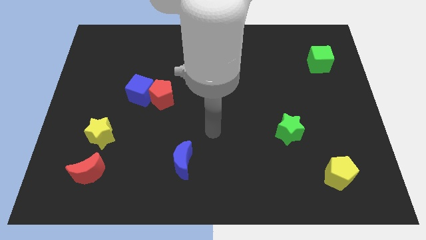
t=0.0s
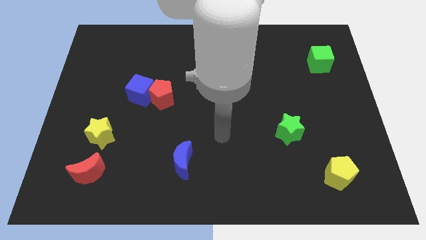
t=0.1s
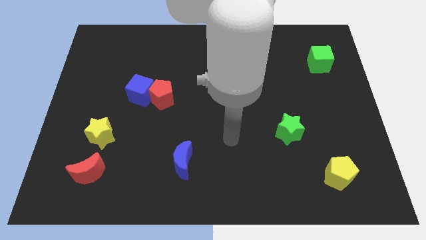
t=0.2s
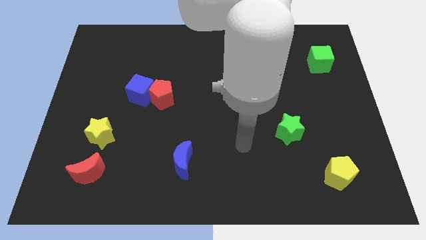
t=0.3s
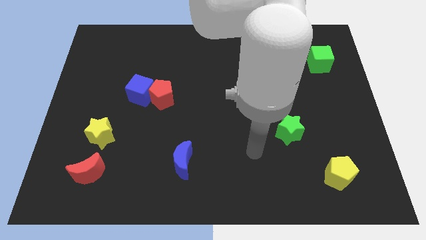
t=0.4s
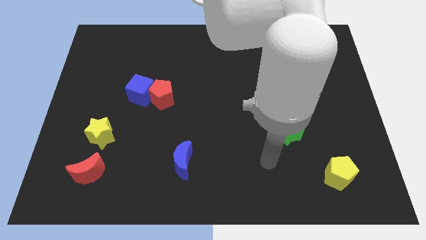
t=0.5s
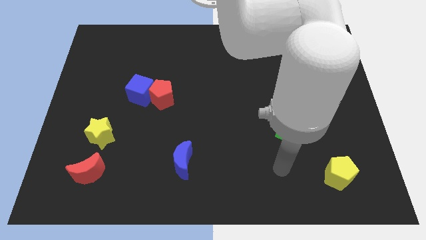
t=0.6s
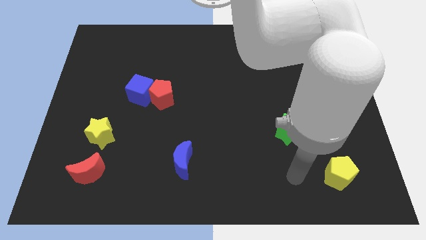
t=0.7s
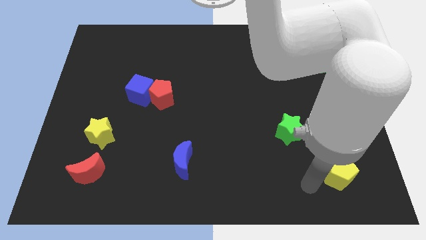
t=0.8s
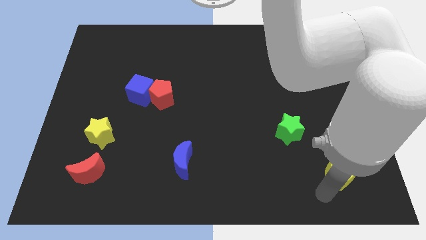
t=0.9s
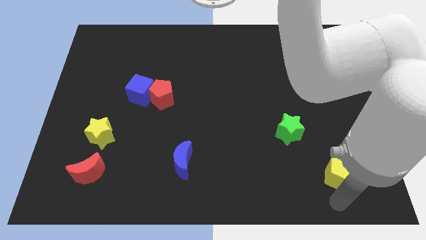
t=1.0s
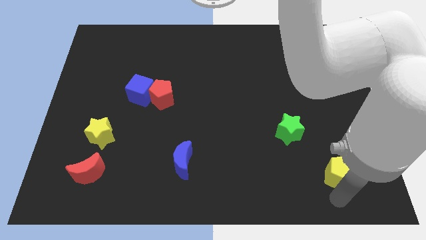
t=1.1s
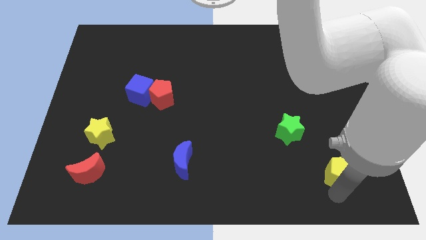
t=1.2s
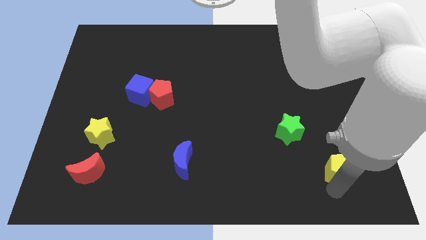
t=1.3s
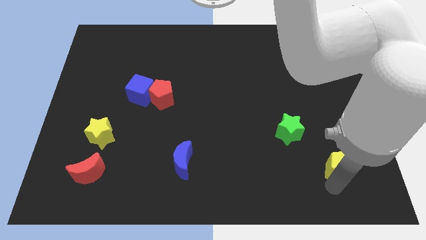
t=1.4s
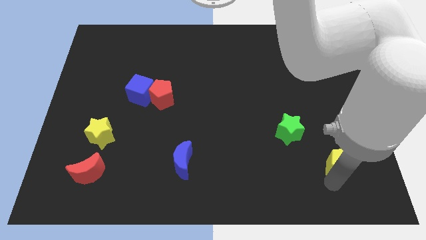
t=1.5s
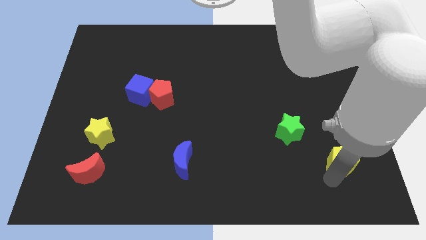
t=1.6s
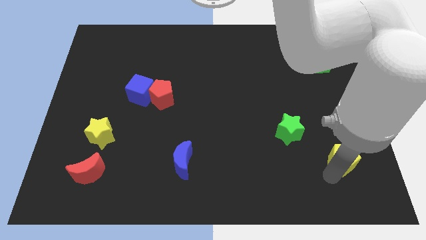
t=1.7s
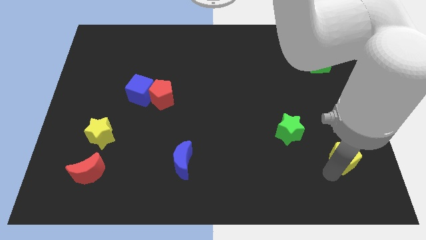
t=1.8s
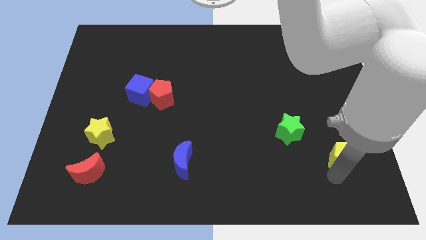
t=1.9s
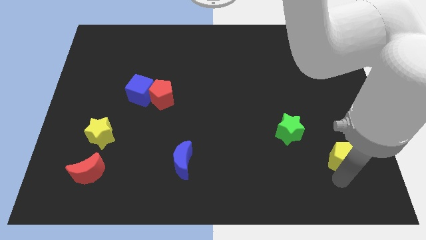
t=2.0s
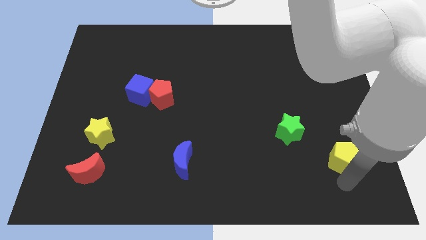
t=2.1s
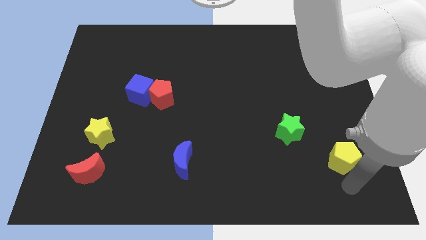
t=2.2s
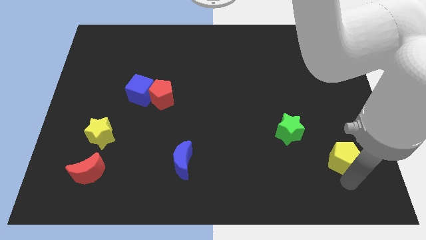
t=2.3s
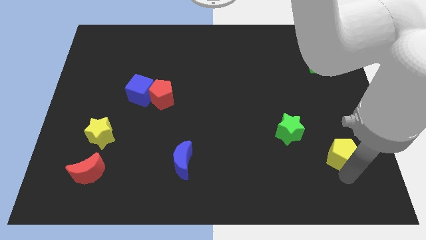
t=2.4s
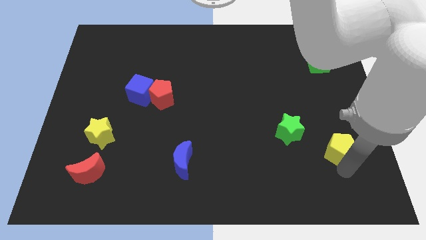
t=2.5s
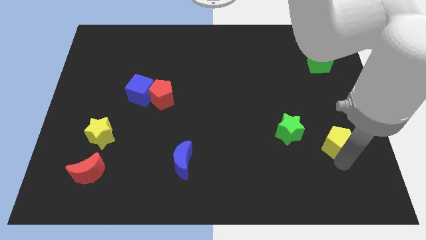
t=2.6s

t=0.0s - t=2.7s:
move the yellow pentagon up a little bit

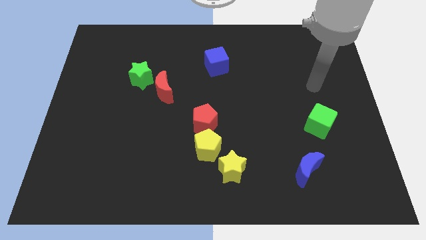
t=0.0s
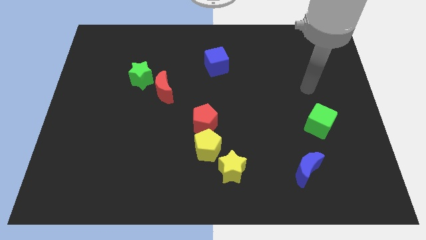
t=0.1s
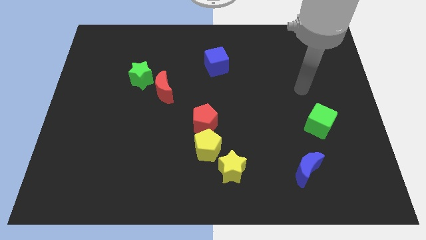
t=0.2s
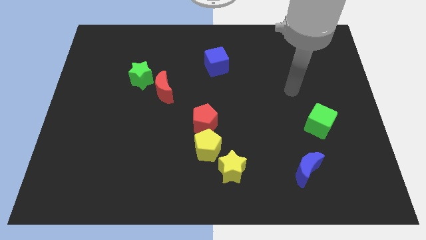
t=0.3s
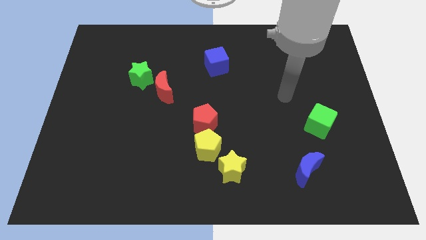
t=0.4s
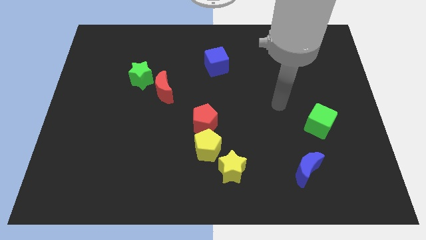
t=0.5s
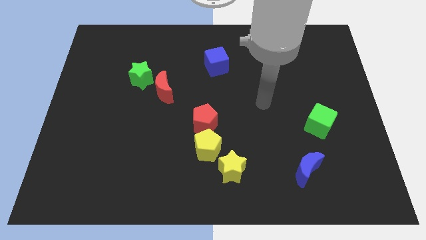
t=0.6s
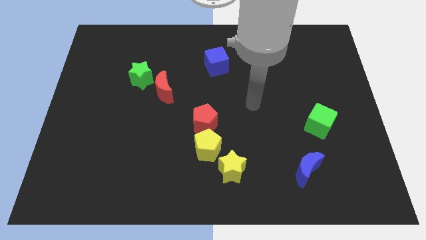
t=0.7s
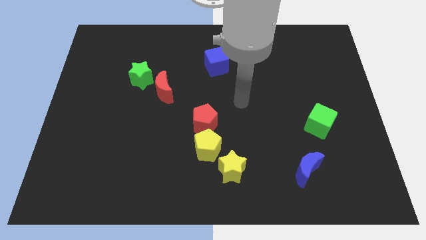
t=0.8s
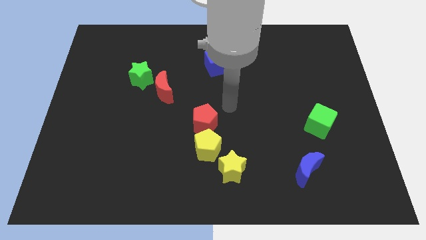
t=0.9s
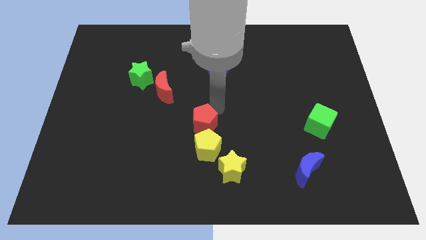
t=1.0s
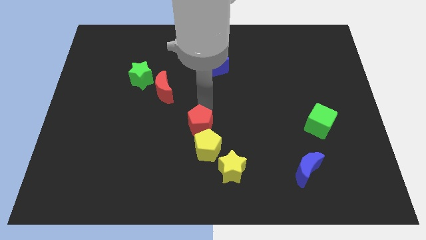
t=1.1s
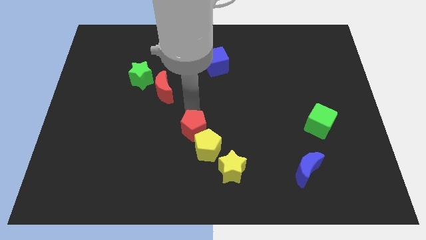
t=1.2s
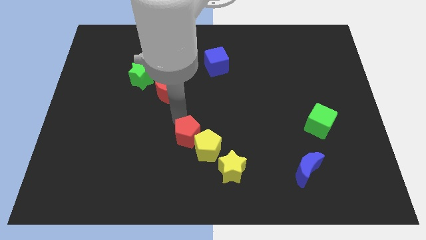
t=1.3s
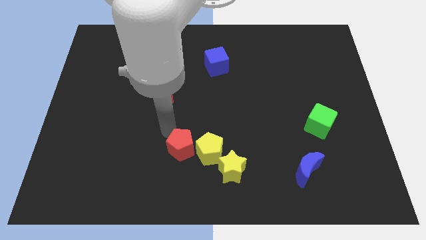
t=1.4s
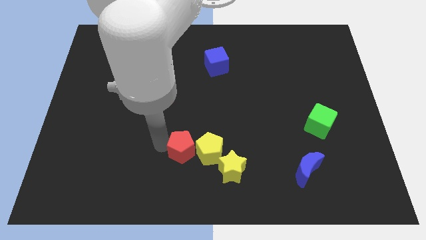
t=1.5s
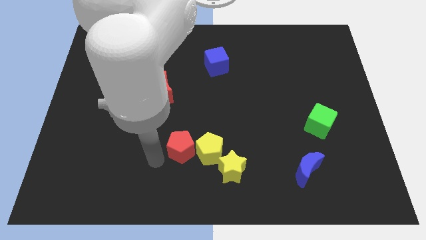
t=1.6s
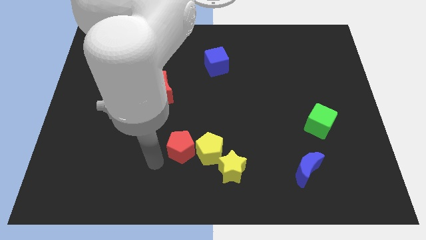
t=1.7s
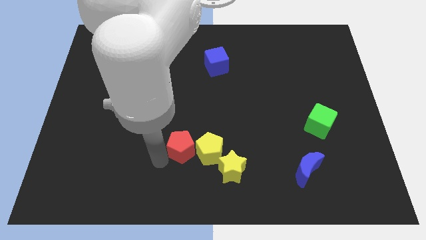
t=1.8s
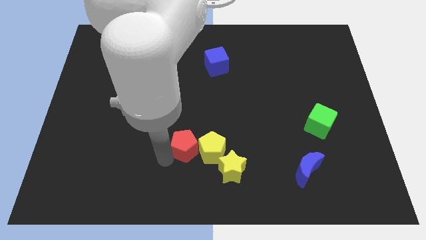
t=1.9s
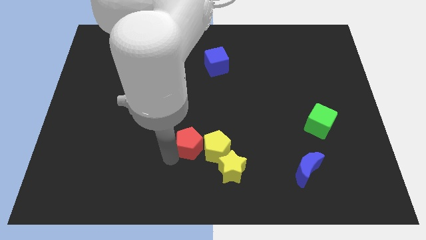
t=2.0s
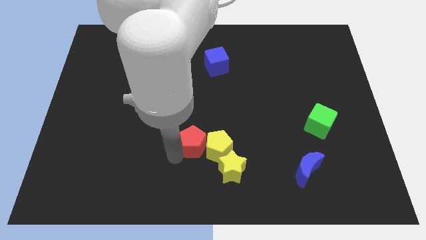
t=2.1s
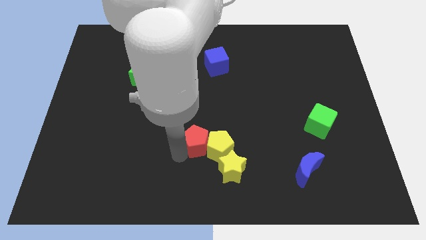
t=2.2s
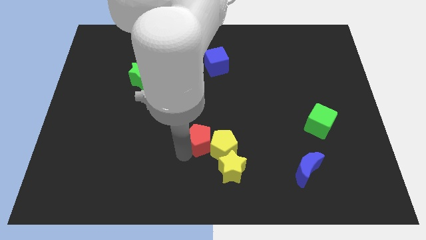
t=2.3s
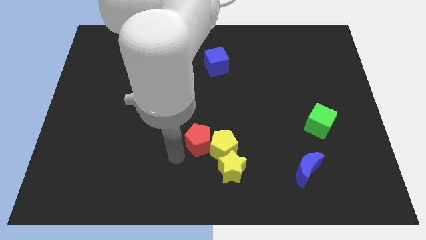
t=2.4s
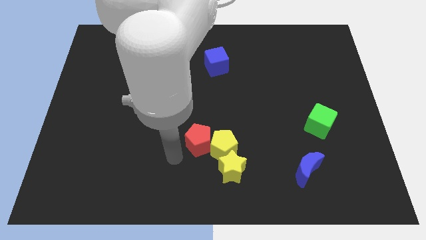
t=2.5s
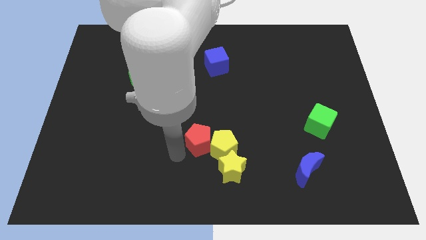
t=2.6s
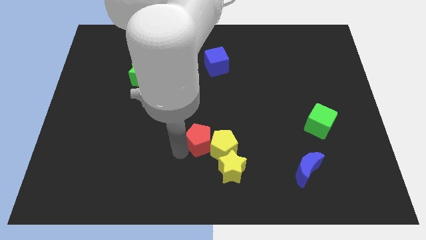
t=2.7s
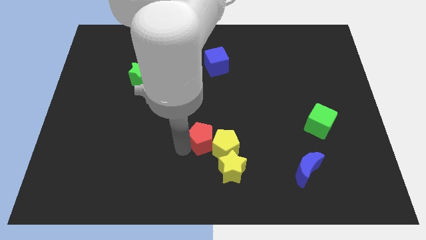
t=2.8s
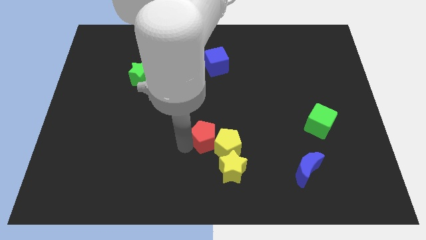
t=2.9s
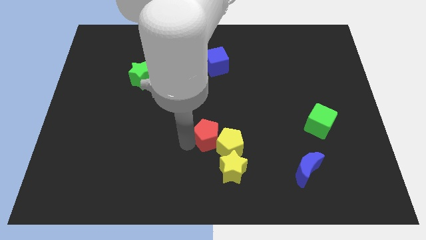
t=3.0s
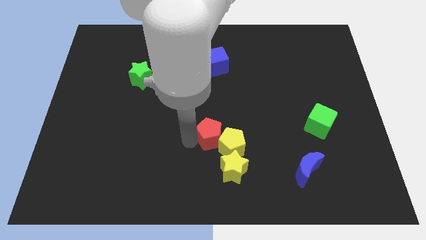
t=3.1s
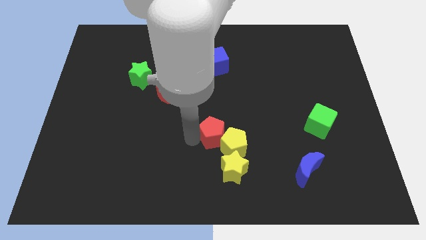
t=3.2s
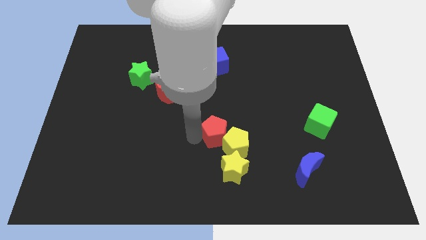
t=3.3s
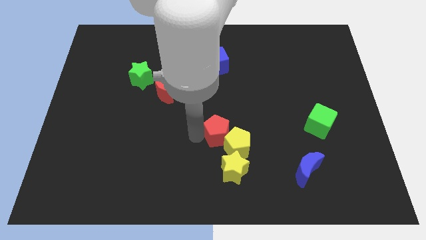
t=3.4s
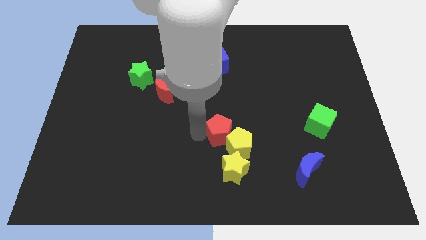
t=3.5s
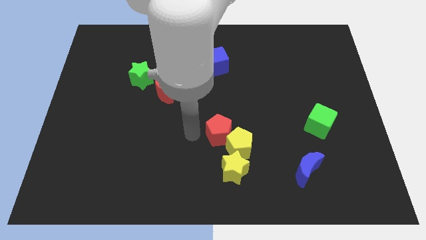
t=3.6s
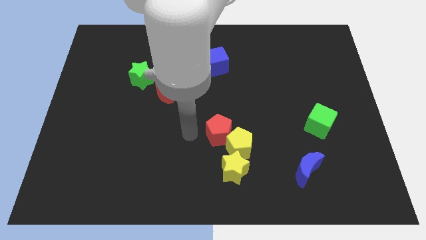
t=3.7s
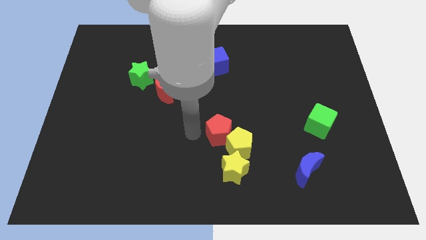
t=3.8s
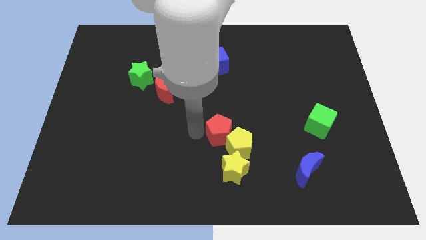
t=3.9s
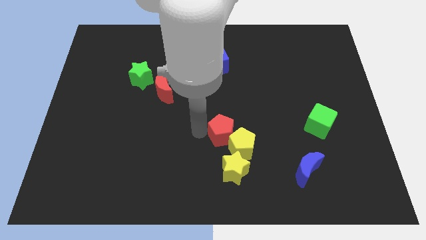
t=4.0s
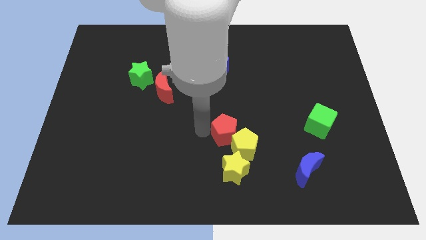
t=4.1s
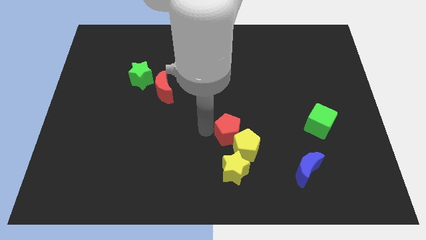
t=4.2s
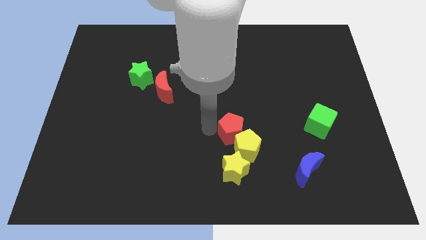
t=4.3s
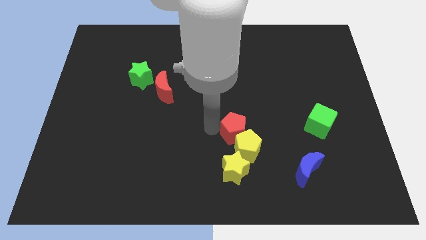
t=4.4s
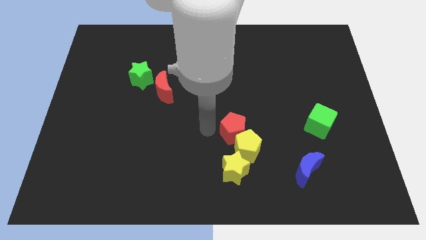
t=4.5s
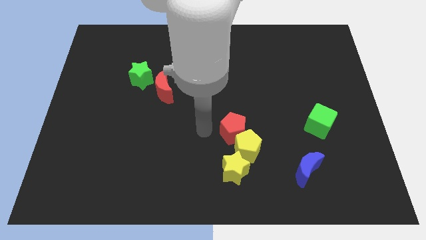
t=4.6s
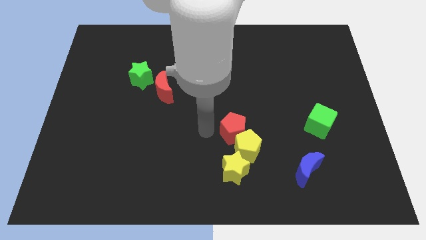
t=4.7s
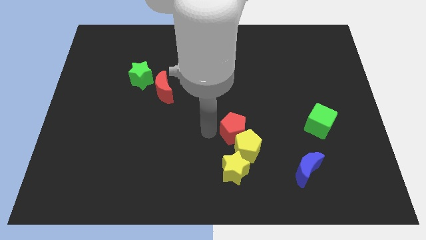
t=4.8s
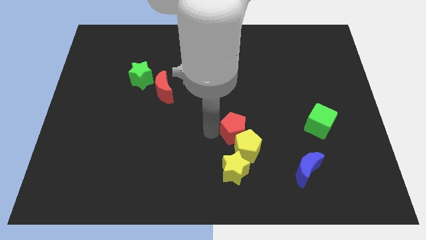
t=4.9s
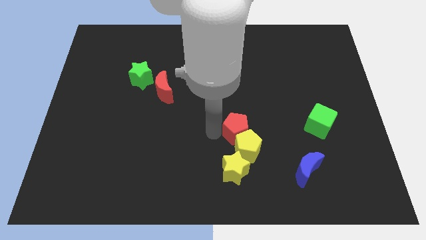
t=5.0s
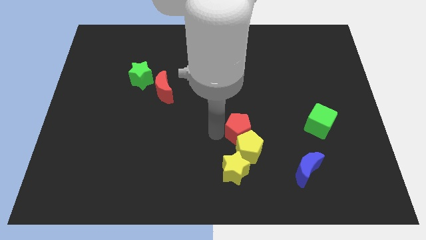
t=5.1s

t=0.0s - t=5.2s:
slightly slide the red pentagon right
